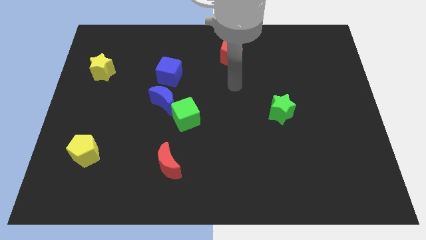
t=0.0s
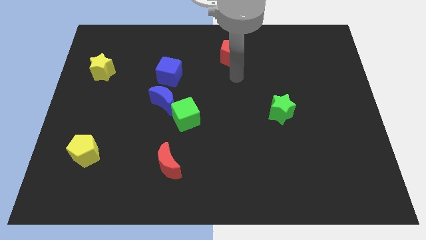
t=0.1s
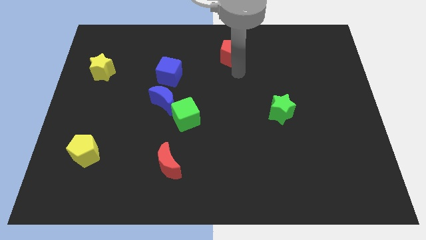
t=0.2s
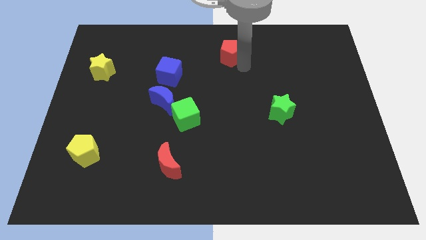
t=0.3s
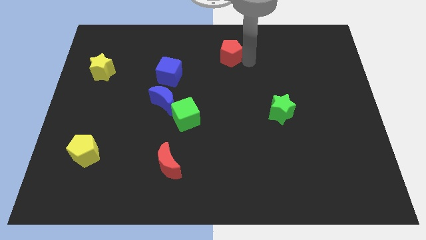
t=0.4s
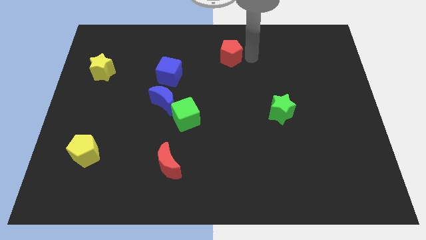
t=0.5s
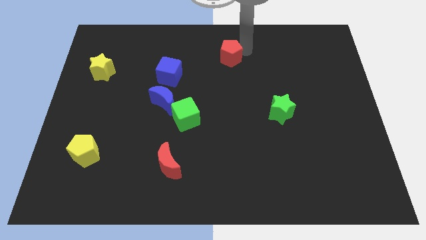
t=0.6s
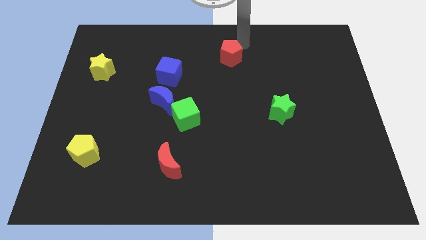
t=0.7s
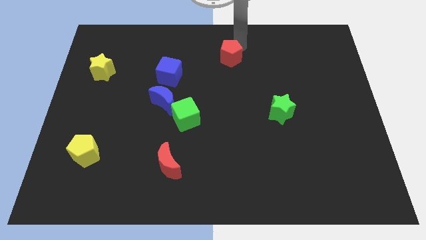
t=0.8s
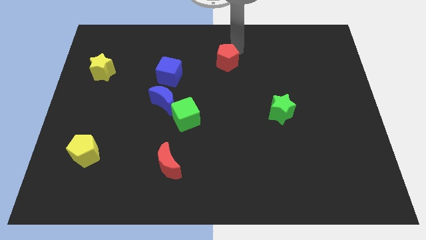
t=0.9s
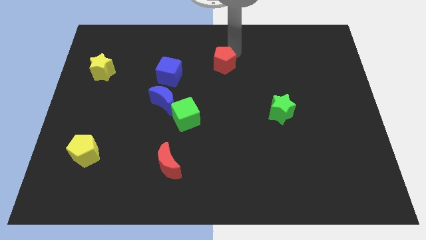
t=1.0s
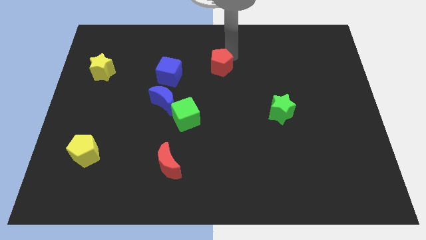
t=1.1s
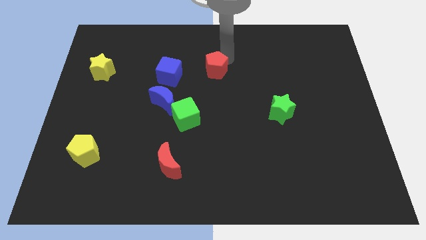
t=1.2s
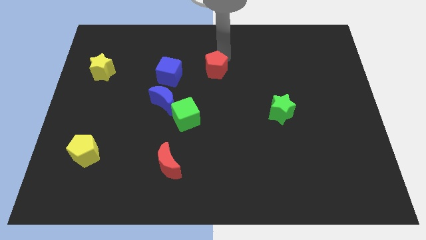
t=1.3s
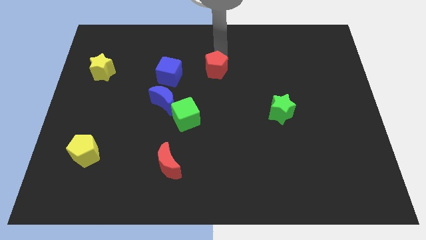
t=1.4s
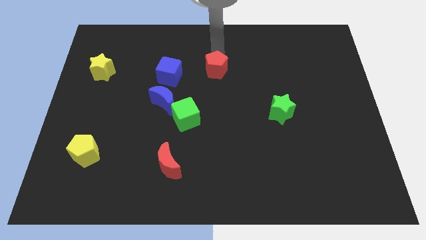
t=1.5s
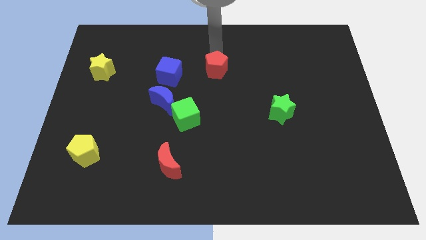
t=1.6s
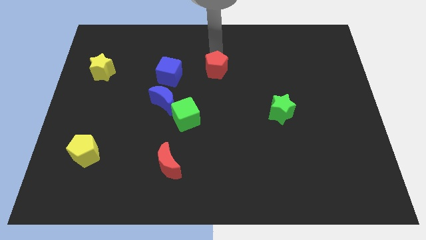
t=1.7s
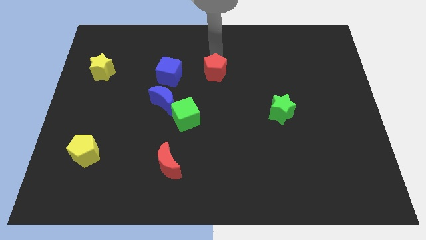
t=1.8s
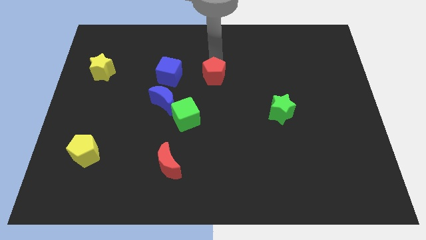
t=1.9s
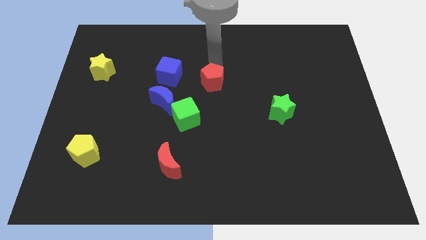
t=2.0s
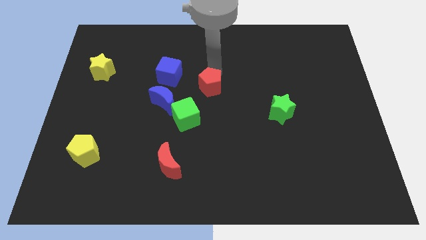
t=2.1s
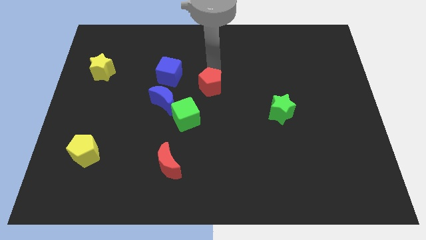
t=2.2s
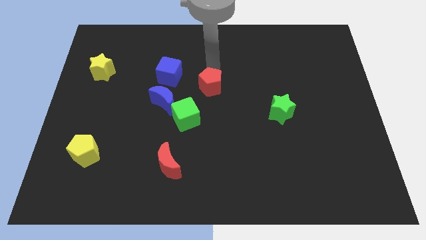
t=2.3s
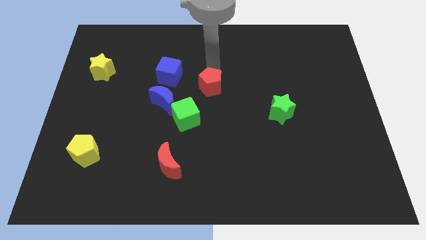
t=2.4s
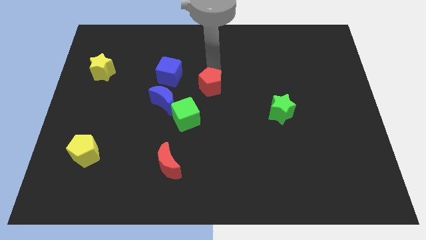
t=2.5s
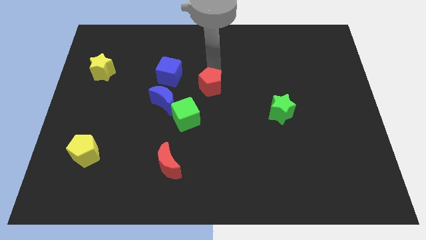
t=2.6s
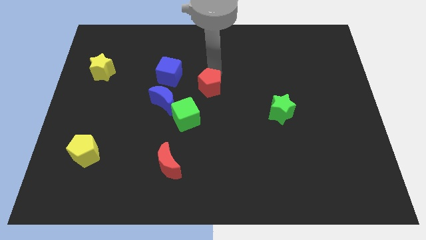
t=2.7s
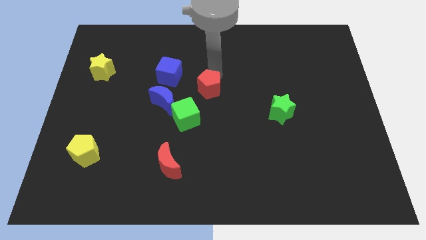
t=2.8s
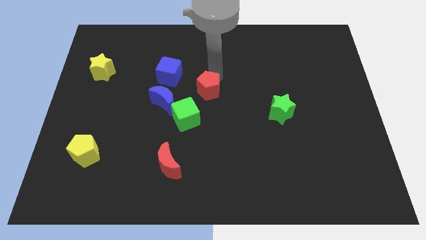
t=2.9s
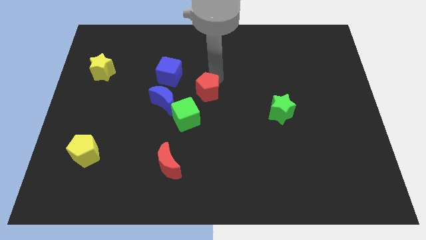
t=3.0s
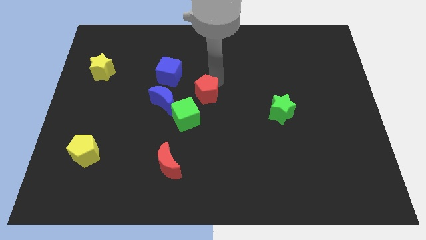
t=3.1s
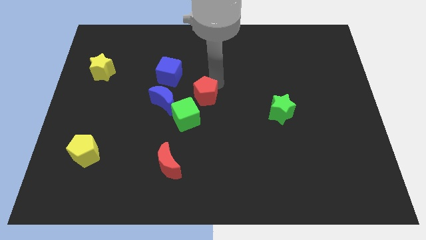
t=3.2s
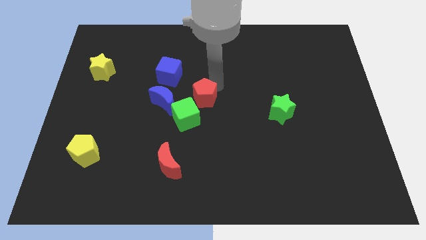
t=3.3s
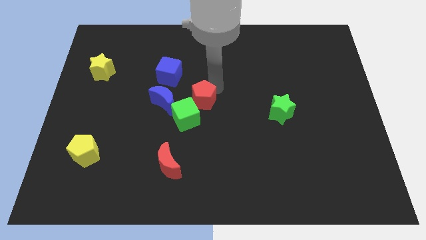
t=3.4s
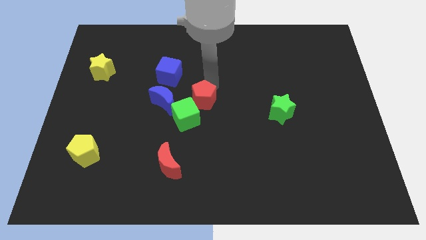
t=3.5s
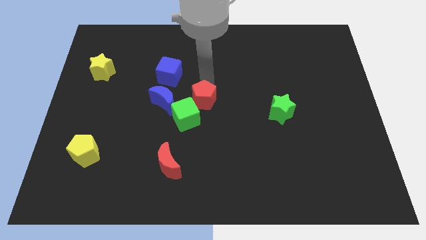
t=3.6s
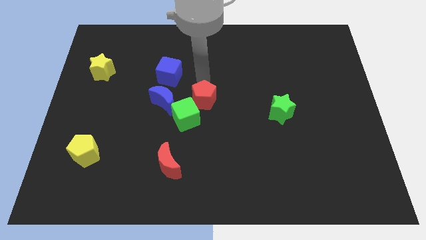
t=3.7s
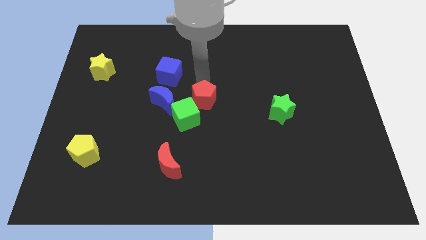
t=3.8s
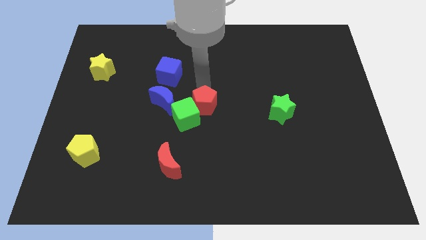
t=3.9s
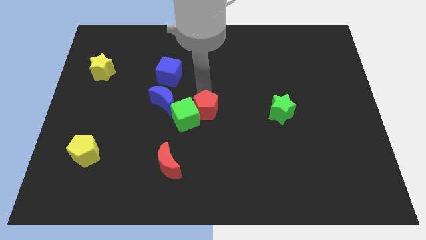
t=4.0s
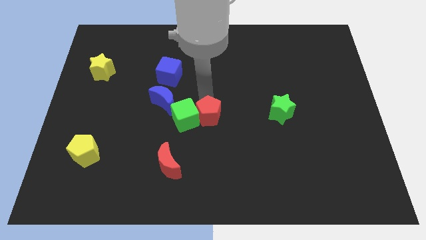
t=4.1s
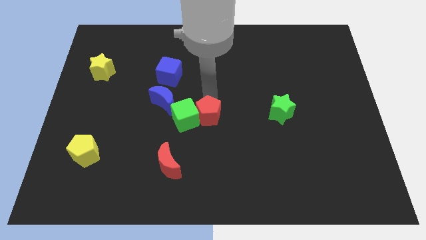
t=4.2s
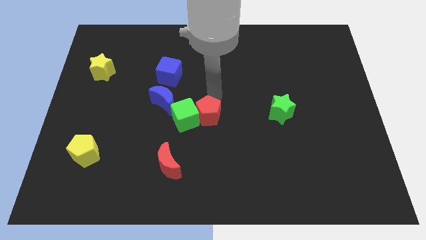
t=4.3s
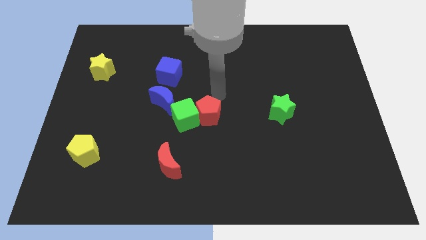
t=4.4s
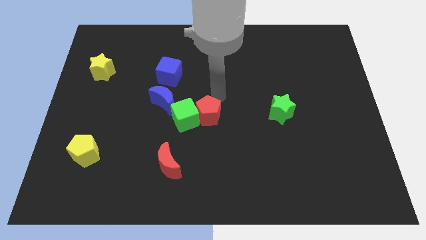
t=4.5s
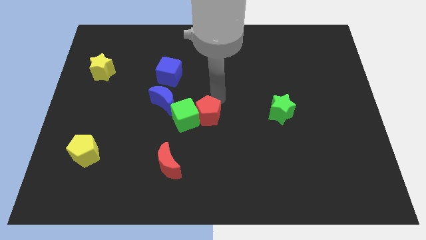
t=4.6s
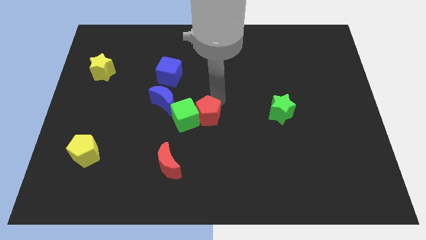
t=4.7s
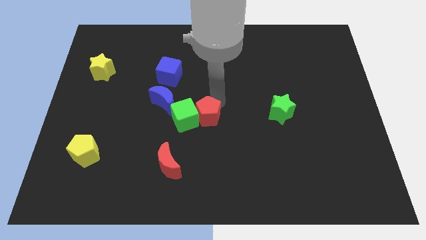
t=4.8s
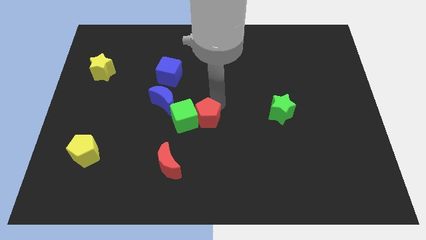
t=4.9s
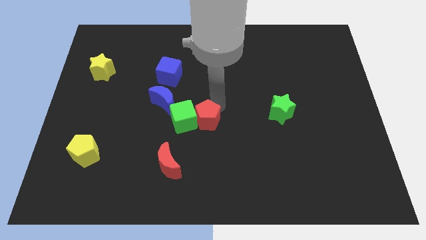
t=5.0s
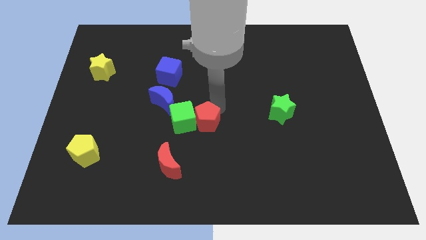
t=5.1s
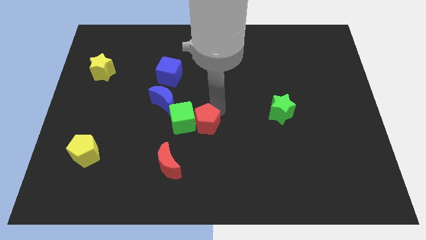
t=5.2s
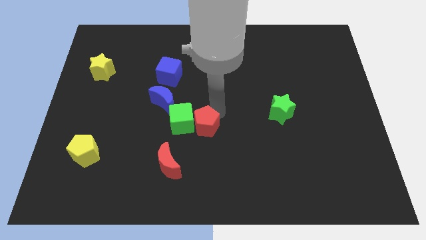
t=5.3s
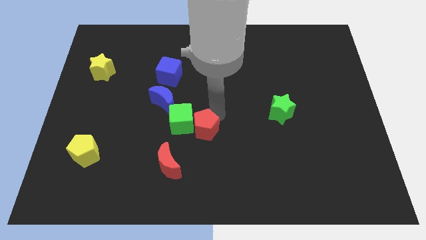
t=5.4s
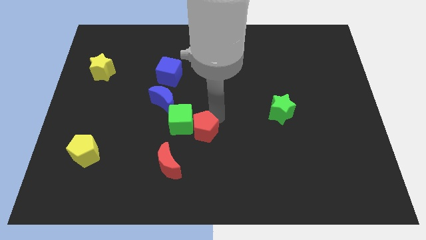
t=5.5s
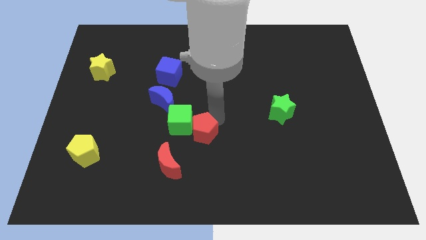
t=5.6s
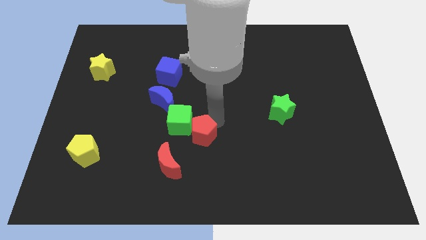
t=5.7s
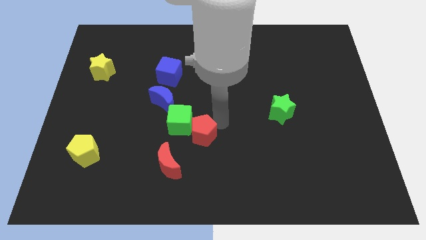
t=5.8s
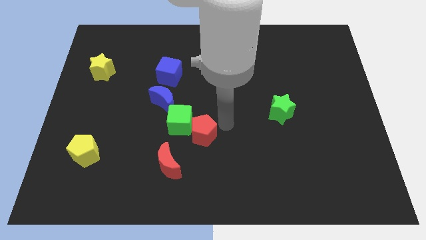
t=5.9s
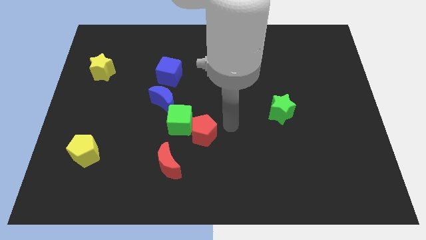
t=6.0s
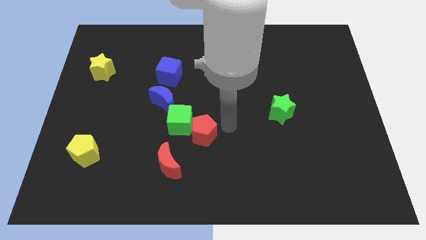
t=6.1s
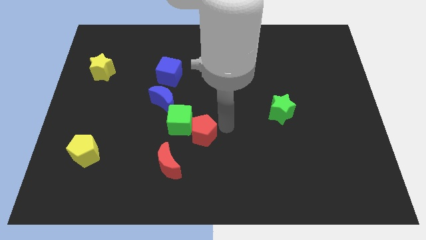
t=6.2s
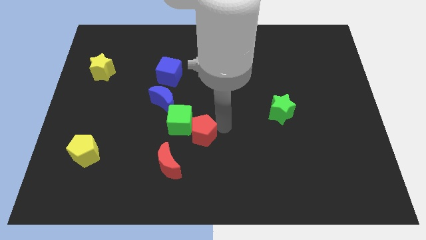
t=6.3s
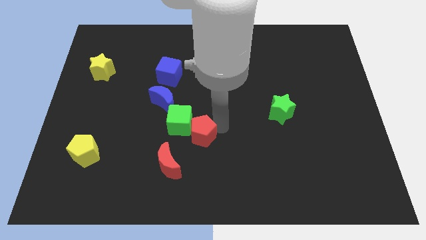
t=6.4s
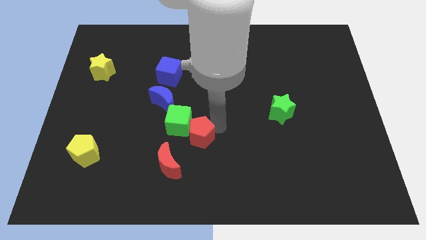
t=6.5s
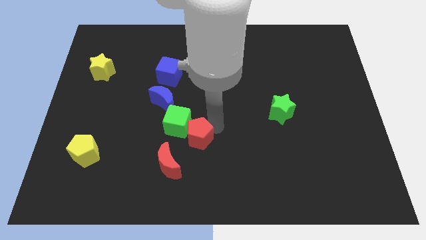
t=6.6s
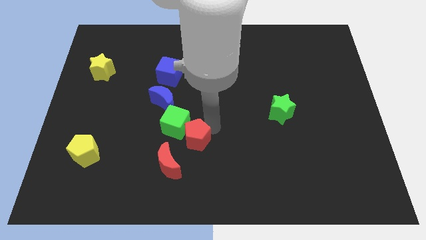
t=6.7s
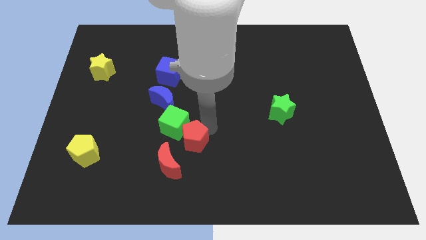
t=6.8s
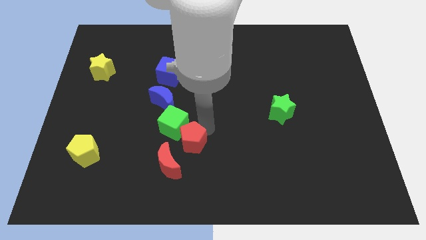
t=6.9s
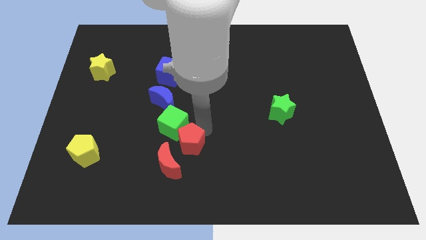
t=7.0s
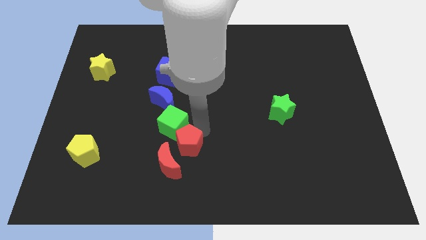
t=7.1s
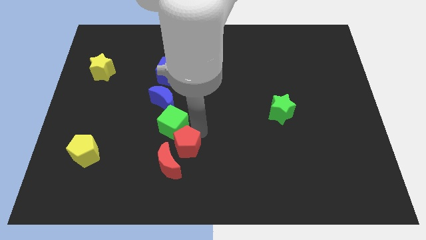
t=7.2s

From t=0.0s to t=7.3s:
slide the red pentagon to the red moon
